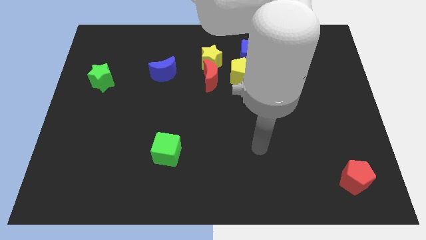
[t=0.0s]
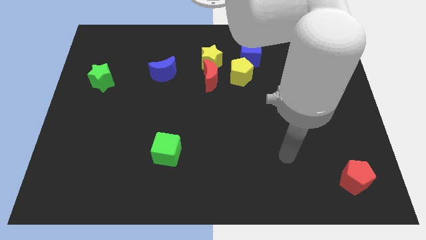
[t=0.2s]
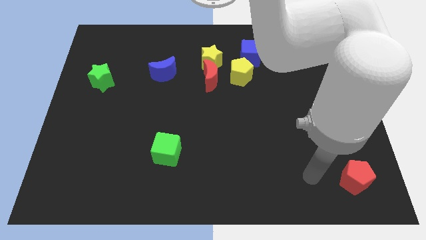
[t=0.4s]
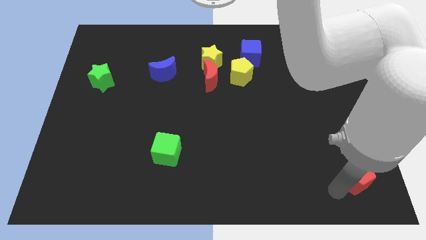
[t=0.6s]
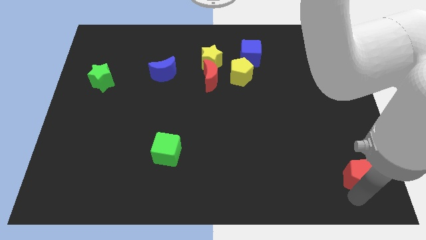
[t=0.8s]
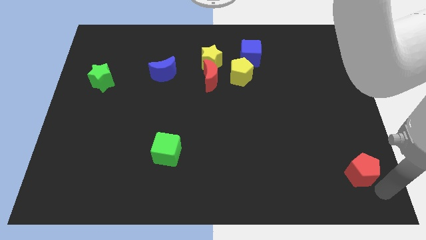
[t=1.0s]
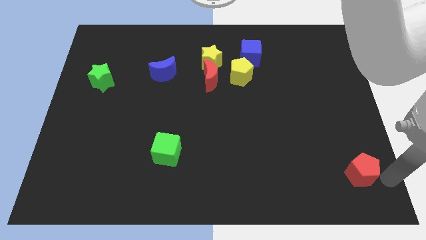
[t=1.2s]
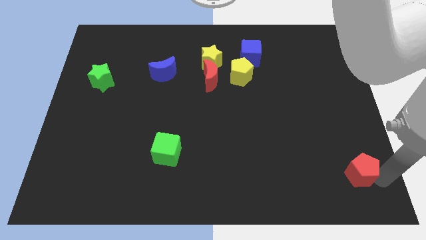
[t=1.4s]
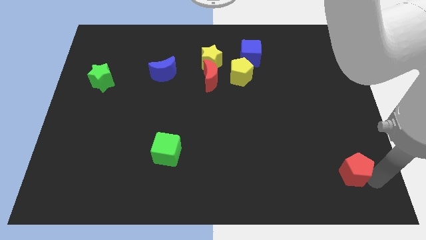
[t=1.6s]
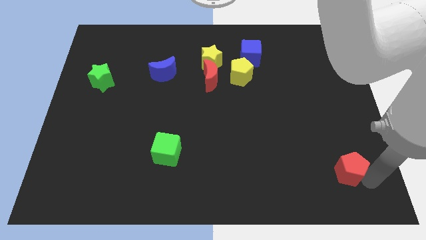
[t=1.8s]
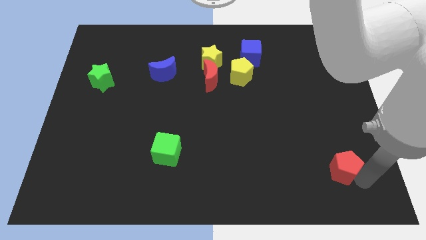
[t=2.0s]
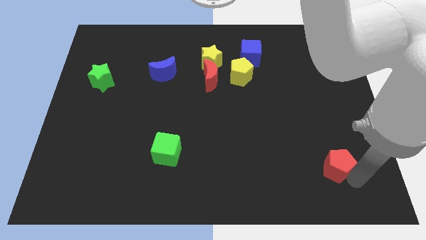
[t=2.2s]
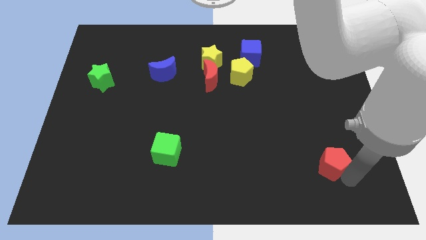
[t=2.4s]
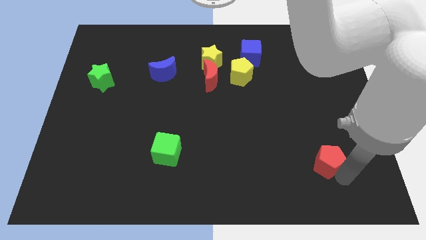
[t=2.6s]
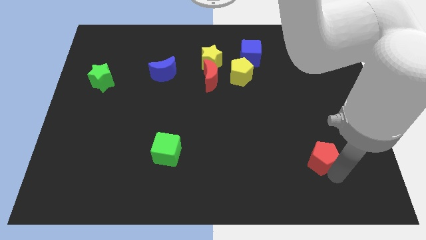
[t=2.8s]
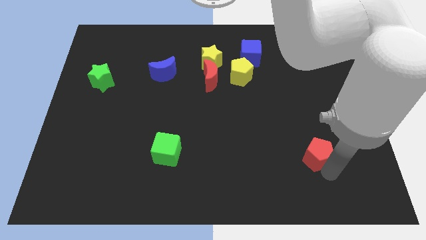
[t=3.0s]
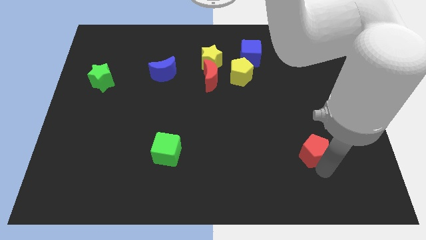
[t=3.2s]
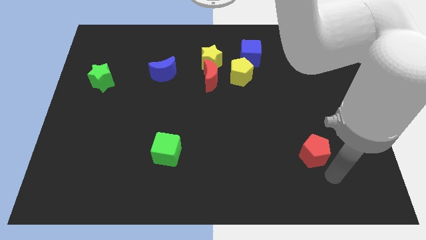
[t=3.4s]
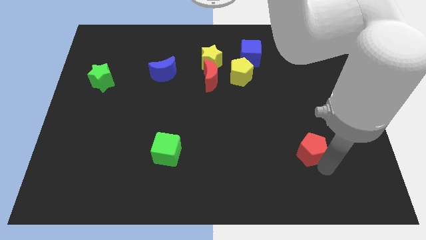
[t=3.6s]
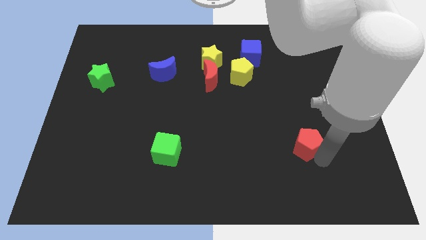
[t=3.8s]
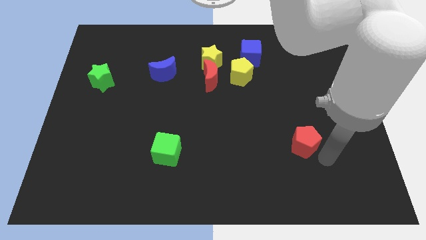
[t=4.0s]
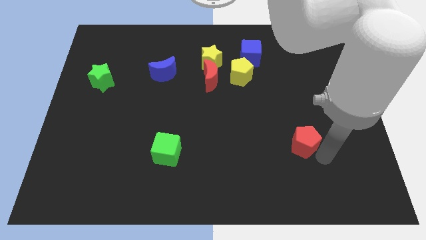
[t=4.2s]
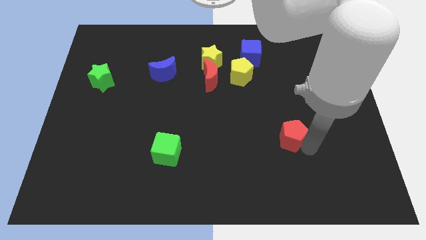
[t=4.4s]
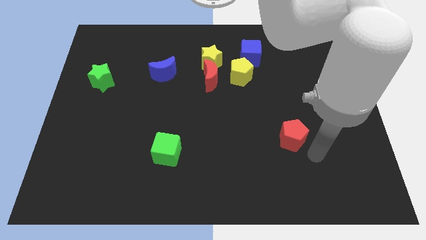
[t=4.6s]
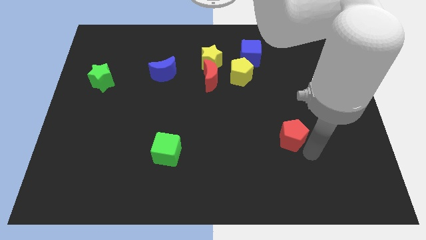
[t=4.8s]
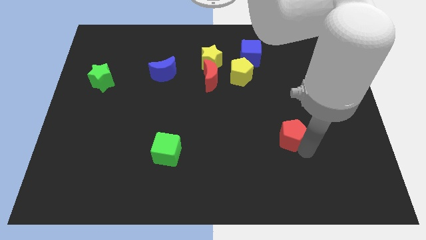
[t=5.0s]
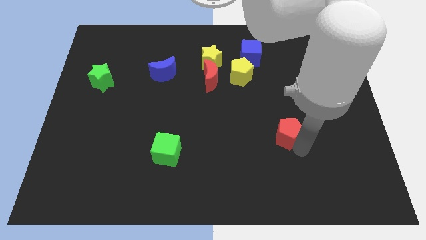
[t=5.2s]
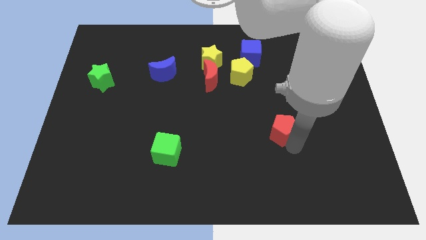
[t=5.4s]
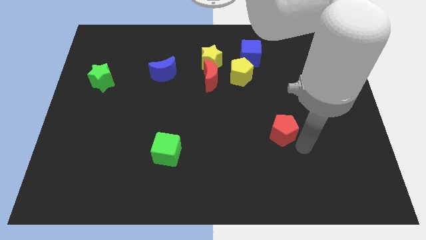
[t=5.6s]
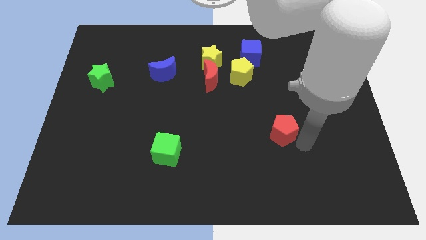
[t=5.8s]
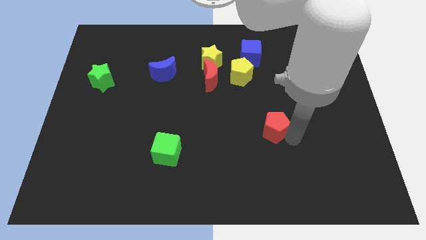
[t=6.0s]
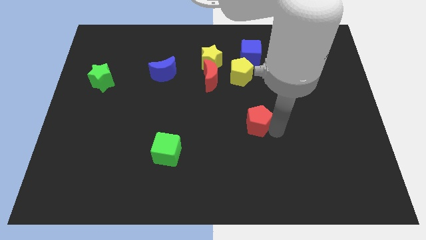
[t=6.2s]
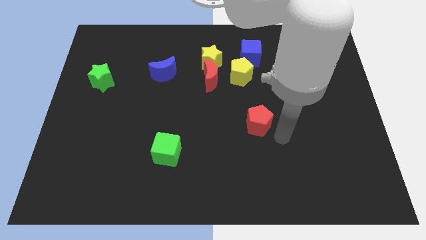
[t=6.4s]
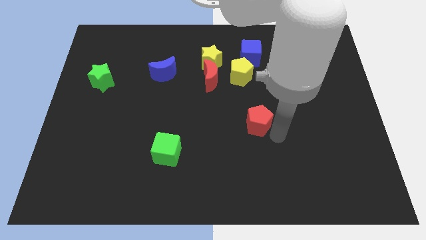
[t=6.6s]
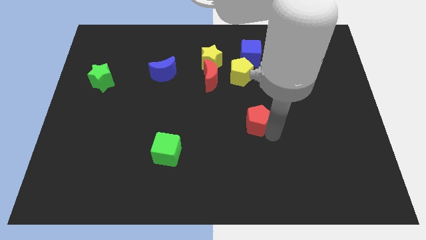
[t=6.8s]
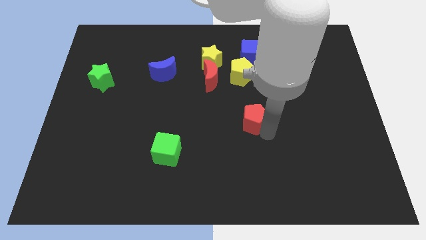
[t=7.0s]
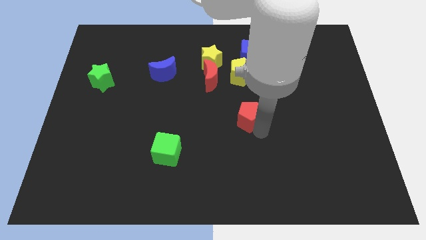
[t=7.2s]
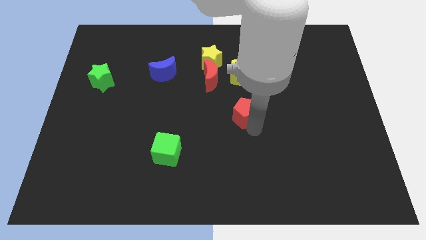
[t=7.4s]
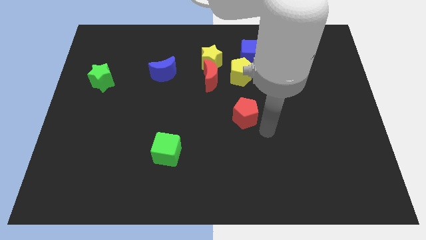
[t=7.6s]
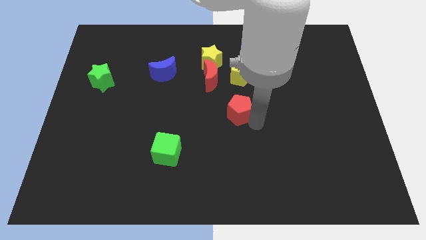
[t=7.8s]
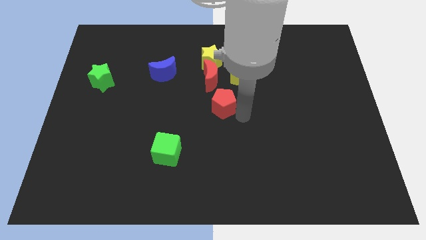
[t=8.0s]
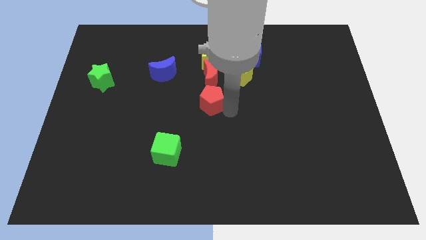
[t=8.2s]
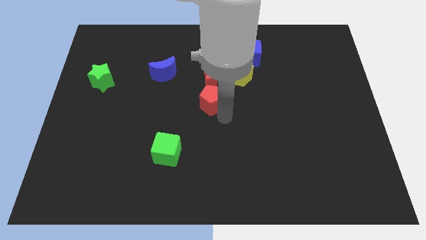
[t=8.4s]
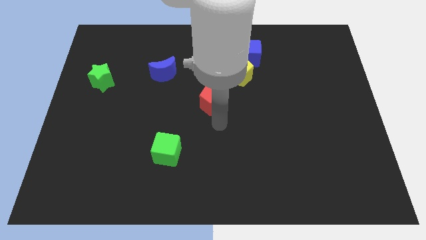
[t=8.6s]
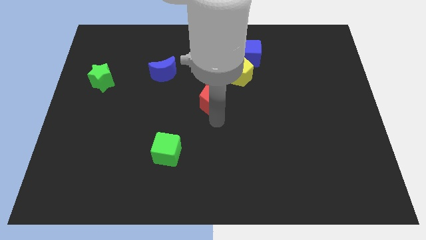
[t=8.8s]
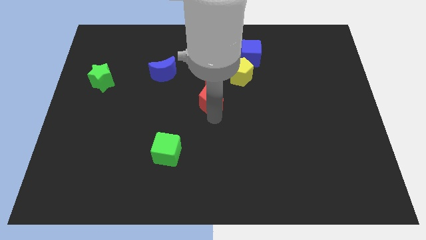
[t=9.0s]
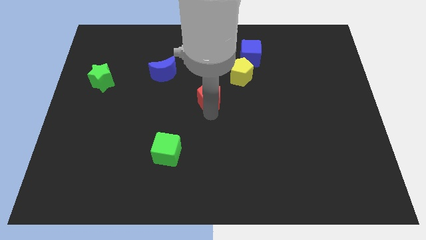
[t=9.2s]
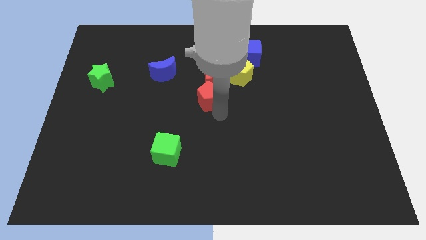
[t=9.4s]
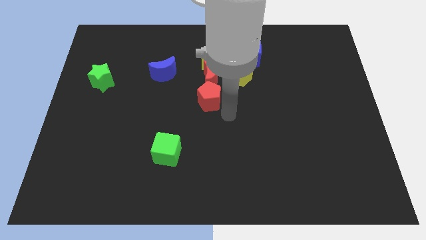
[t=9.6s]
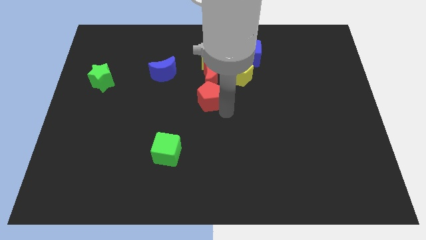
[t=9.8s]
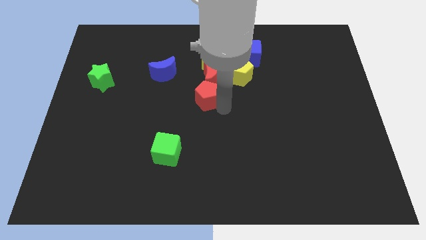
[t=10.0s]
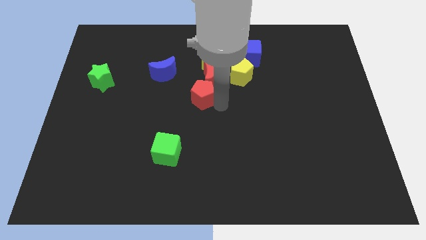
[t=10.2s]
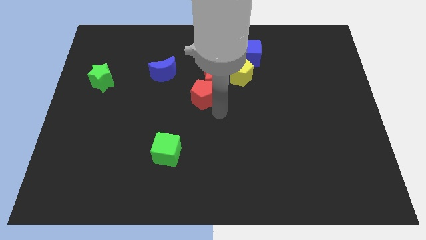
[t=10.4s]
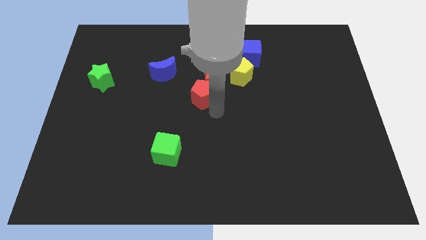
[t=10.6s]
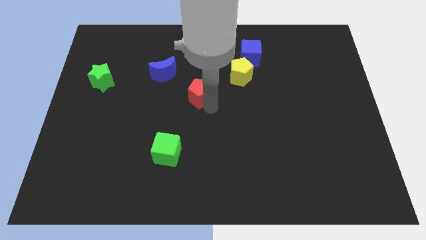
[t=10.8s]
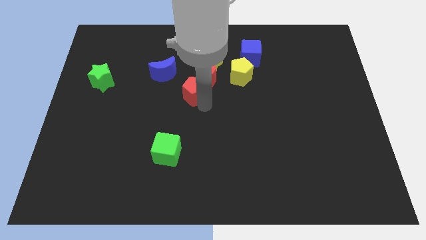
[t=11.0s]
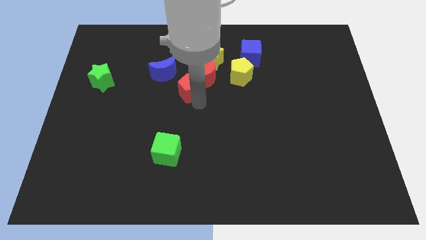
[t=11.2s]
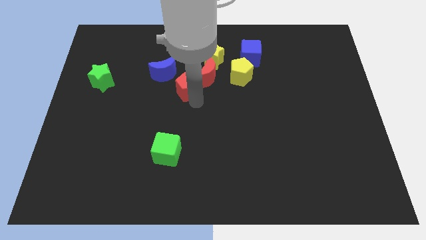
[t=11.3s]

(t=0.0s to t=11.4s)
put the red pentagon to the bottom left of the yellow star
